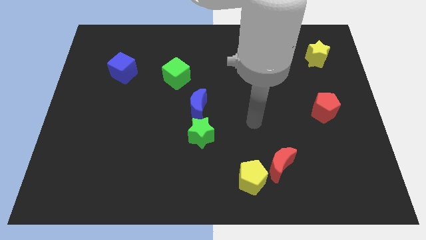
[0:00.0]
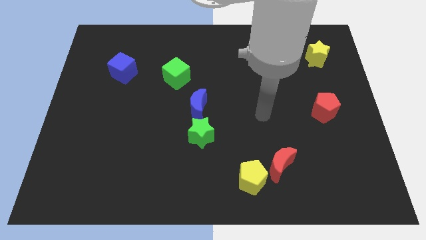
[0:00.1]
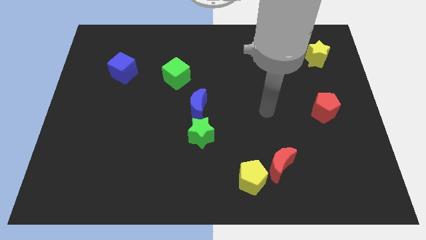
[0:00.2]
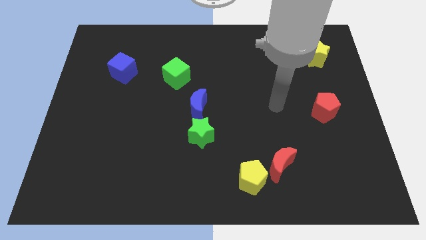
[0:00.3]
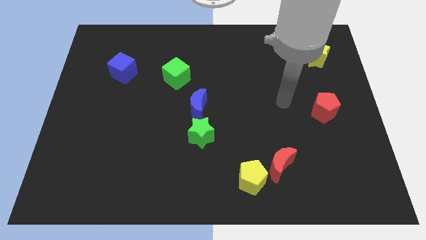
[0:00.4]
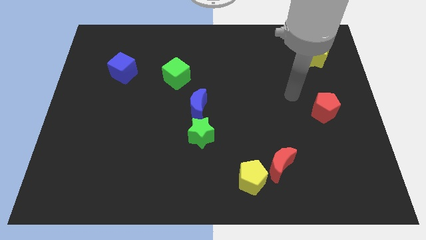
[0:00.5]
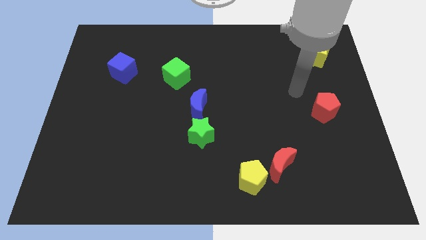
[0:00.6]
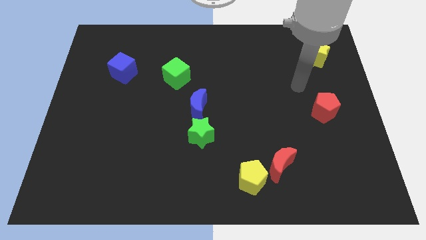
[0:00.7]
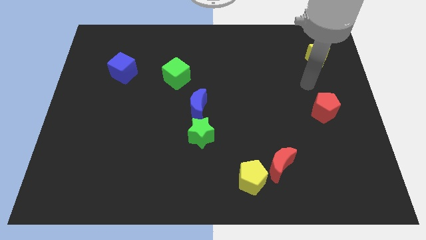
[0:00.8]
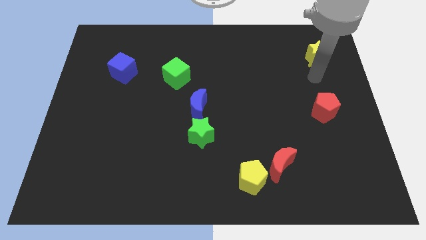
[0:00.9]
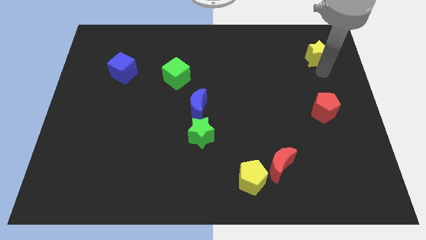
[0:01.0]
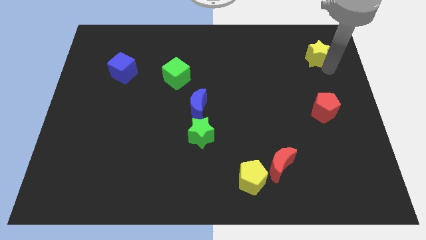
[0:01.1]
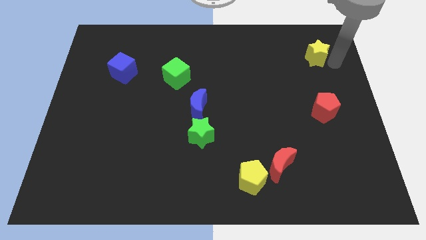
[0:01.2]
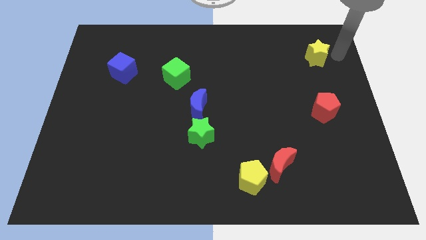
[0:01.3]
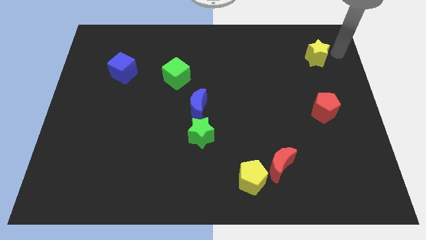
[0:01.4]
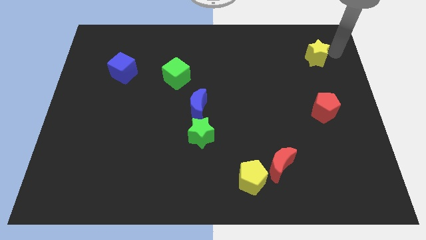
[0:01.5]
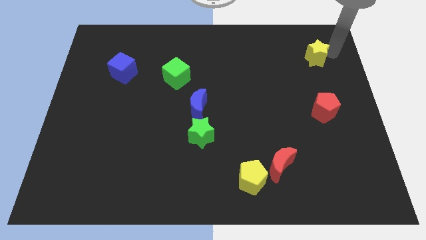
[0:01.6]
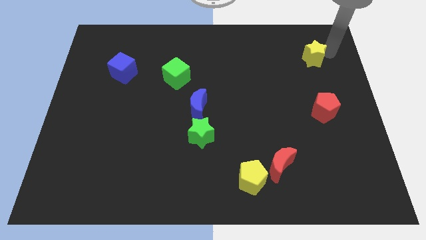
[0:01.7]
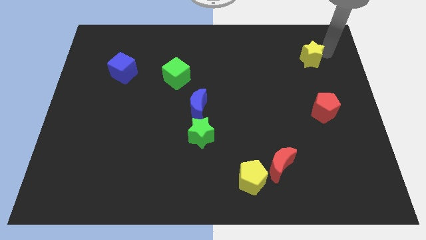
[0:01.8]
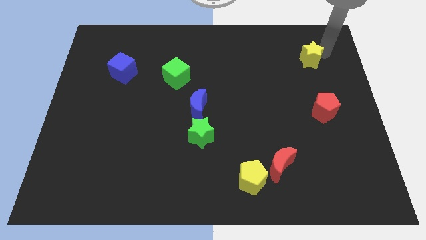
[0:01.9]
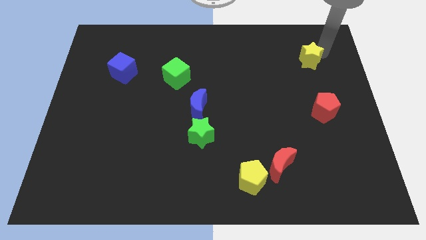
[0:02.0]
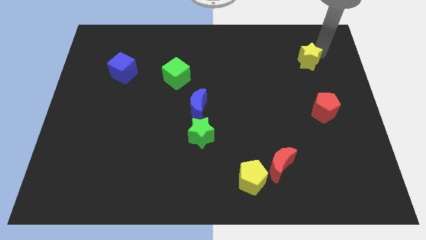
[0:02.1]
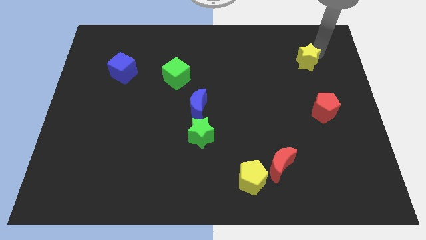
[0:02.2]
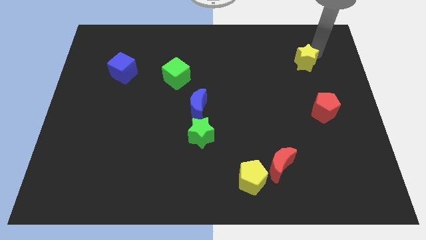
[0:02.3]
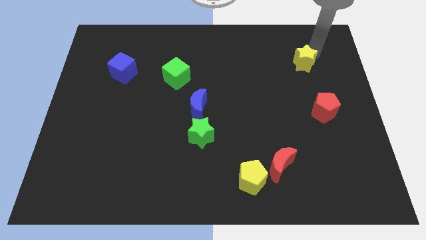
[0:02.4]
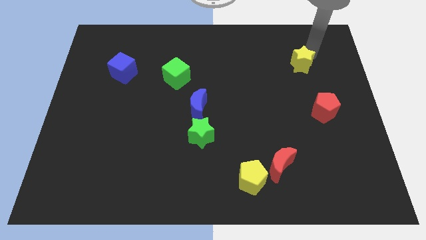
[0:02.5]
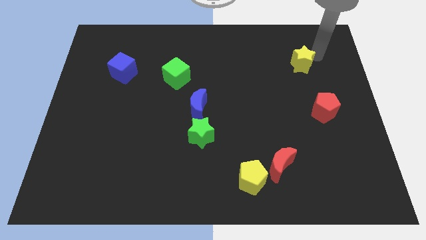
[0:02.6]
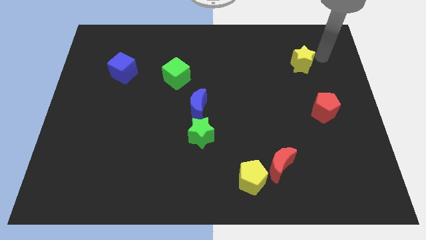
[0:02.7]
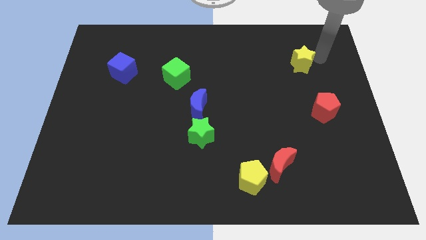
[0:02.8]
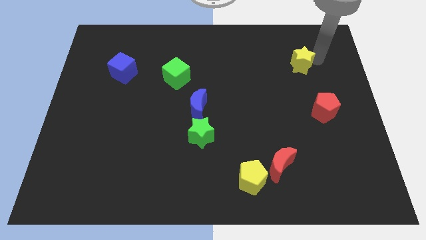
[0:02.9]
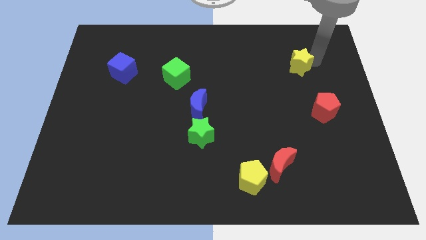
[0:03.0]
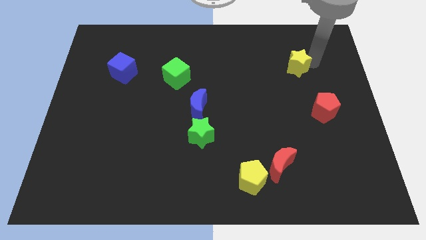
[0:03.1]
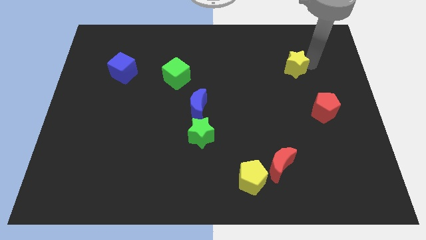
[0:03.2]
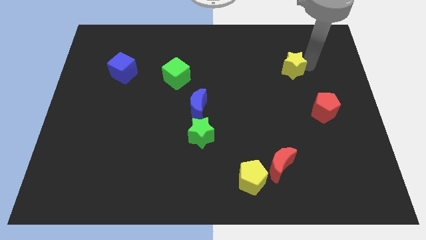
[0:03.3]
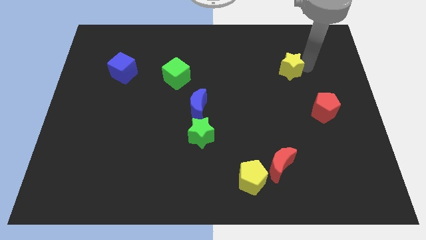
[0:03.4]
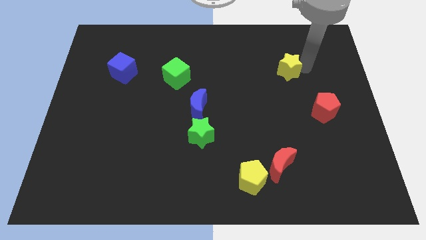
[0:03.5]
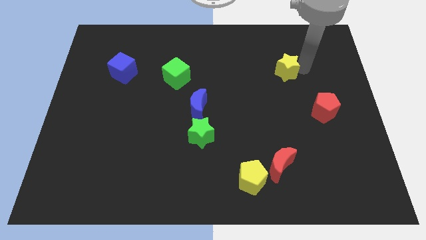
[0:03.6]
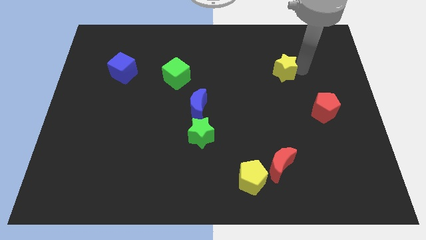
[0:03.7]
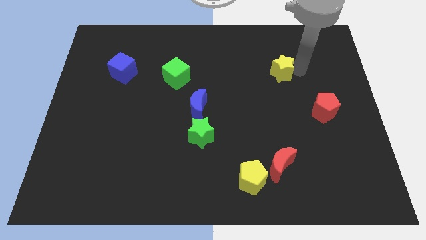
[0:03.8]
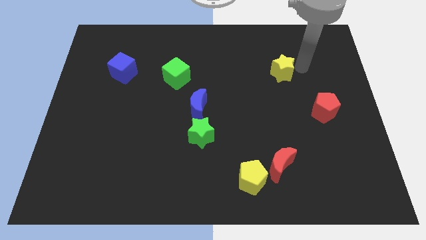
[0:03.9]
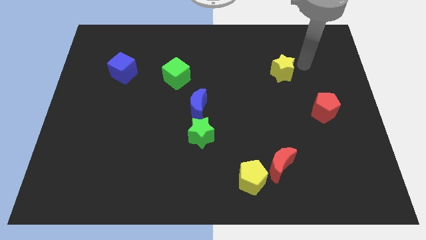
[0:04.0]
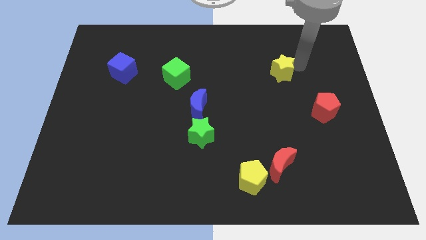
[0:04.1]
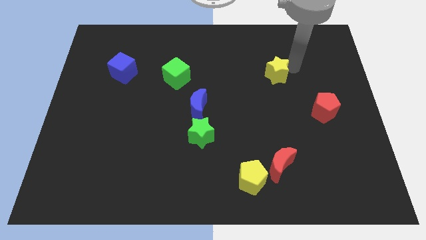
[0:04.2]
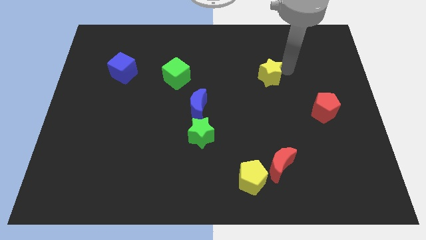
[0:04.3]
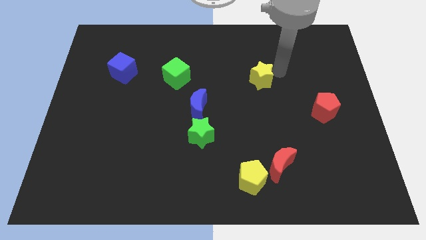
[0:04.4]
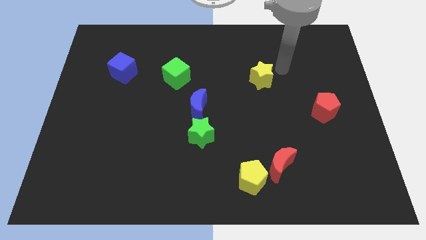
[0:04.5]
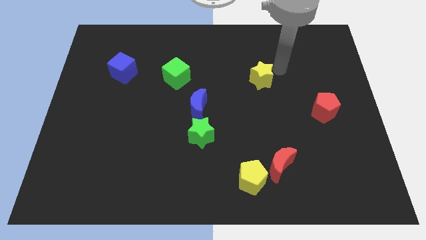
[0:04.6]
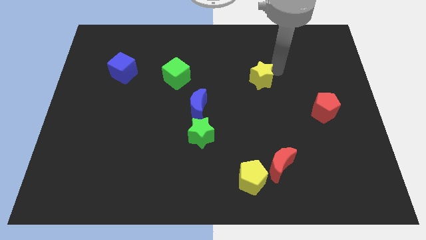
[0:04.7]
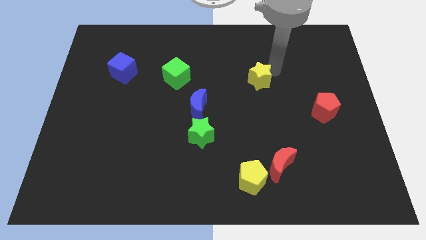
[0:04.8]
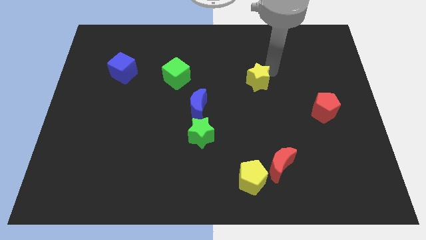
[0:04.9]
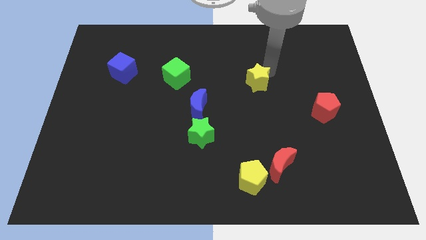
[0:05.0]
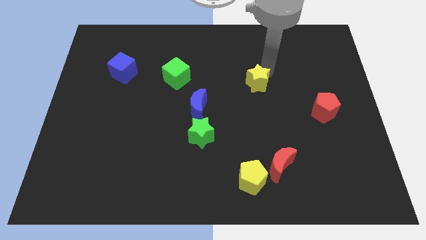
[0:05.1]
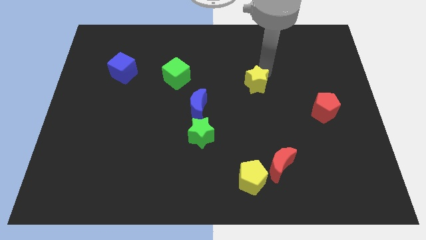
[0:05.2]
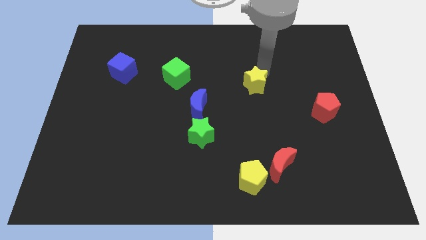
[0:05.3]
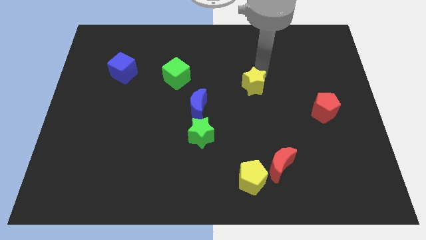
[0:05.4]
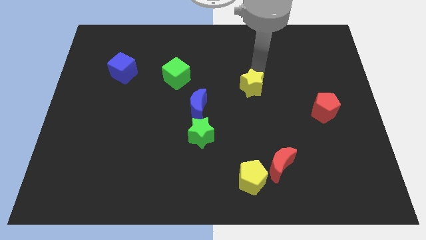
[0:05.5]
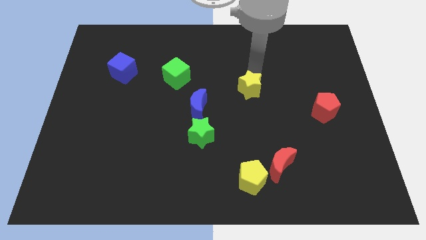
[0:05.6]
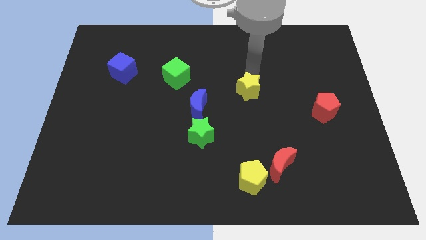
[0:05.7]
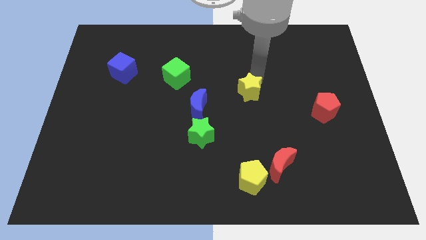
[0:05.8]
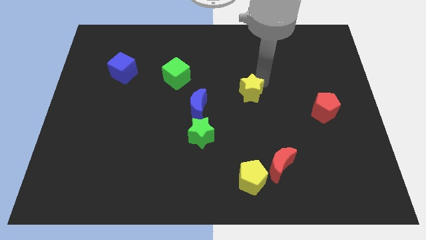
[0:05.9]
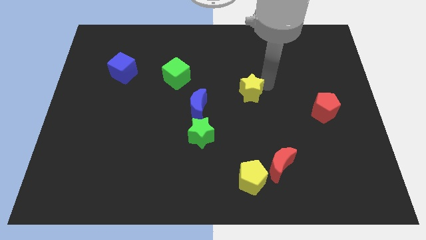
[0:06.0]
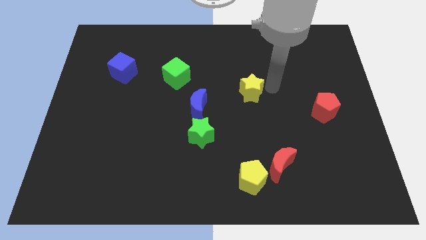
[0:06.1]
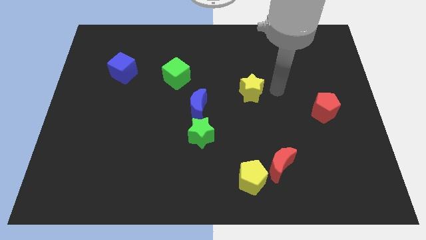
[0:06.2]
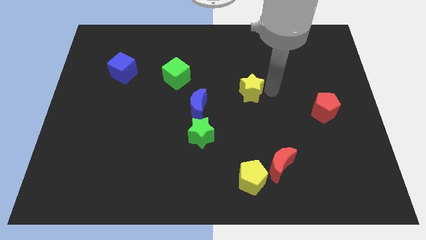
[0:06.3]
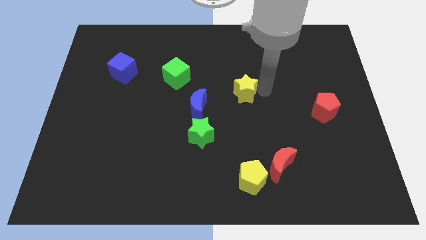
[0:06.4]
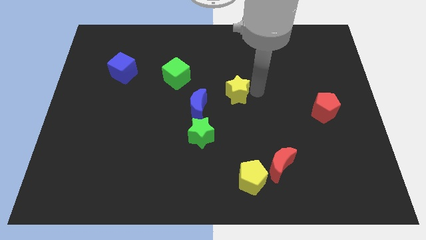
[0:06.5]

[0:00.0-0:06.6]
move the yellow star to the top right side of the blue moon

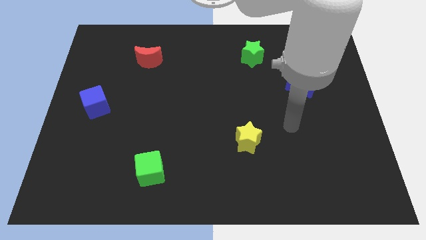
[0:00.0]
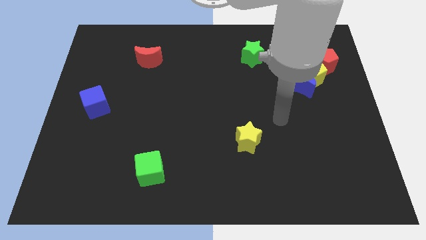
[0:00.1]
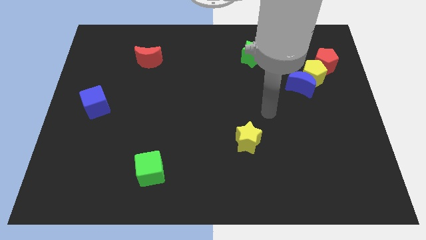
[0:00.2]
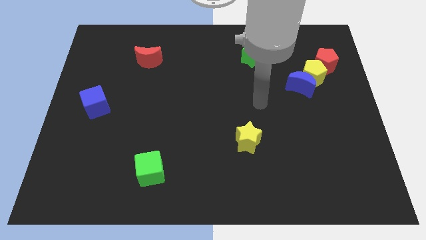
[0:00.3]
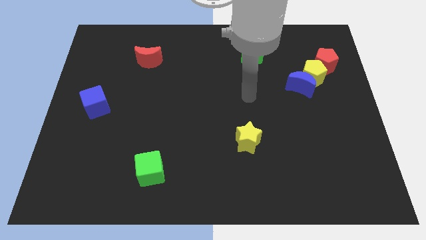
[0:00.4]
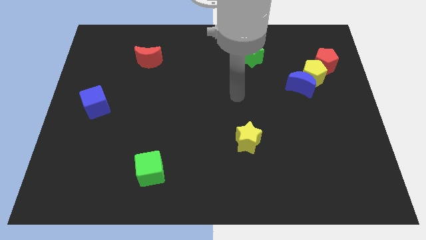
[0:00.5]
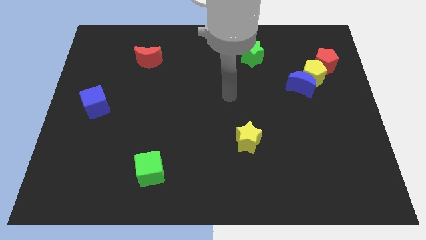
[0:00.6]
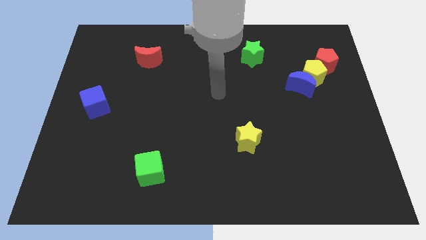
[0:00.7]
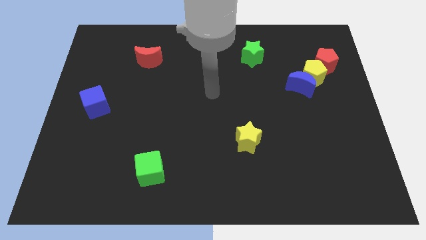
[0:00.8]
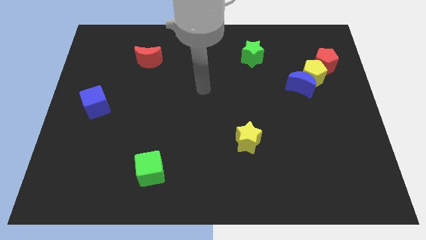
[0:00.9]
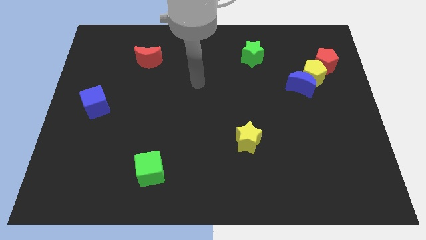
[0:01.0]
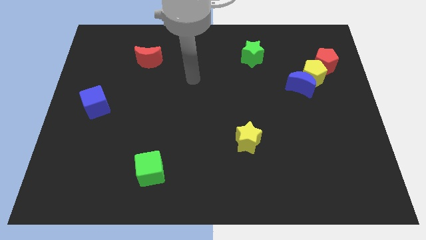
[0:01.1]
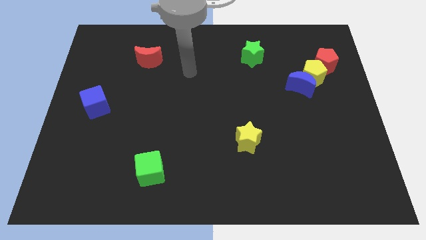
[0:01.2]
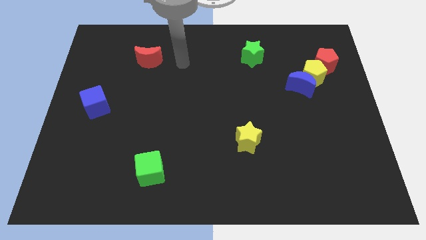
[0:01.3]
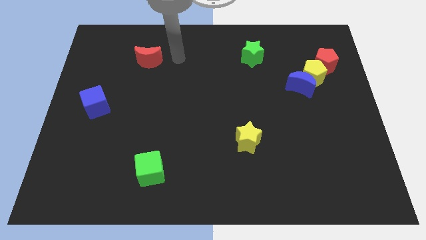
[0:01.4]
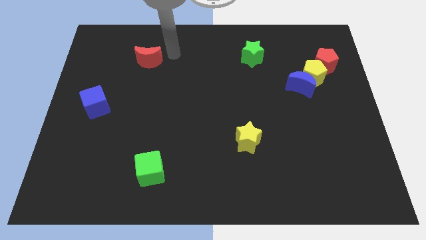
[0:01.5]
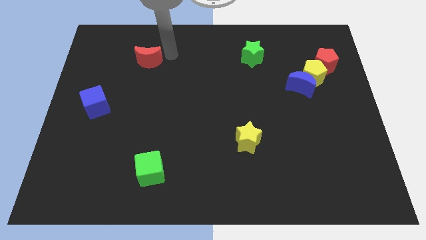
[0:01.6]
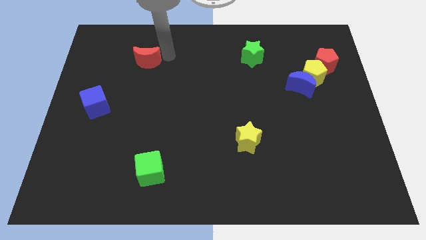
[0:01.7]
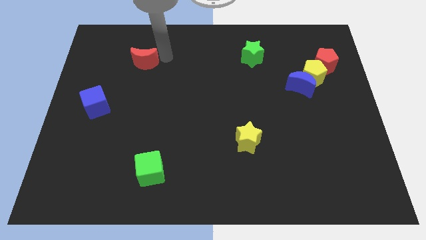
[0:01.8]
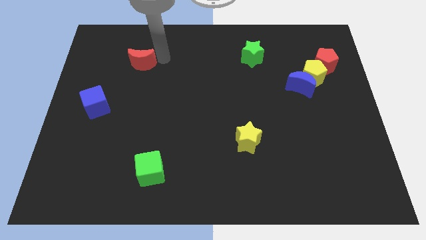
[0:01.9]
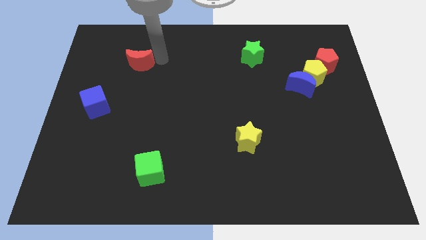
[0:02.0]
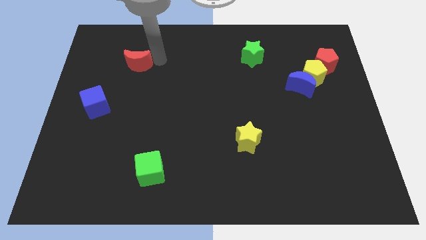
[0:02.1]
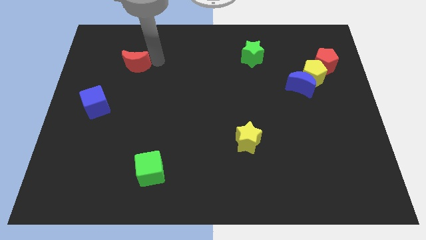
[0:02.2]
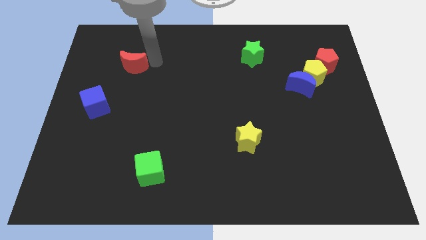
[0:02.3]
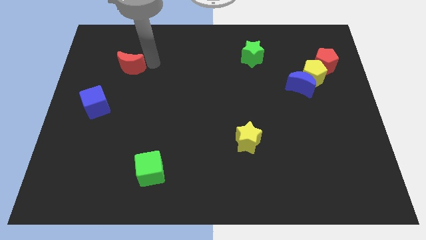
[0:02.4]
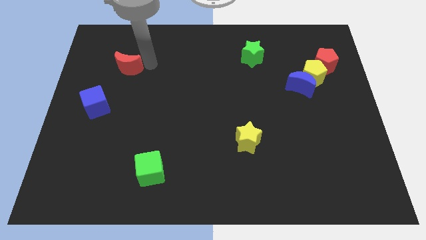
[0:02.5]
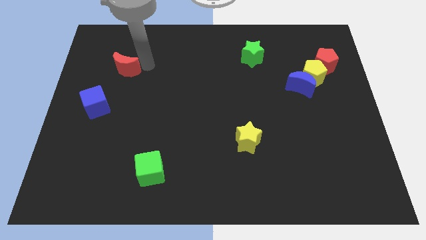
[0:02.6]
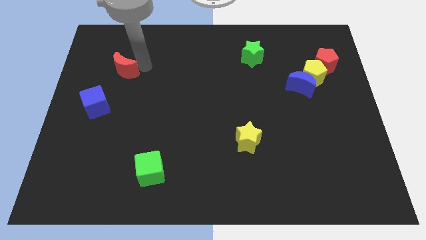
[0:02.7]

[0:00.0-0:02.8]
move the red moon above the blue cube
